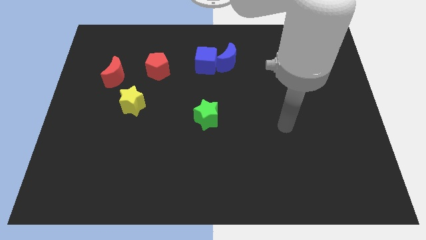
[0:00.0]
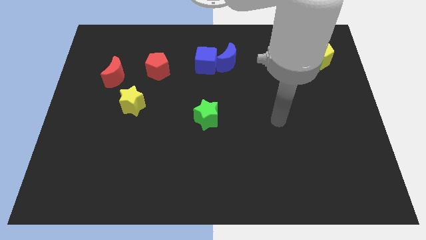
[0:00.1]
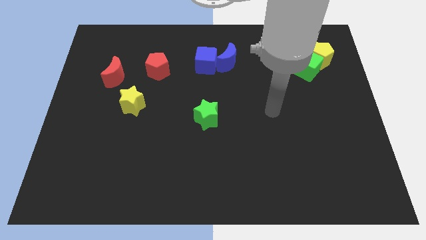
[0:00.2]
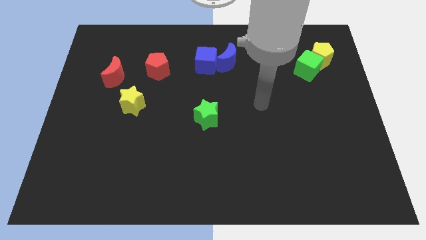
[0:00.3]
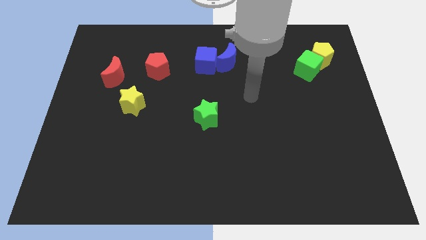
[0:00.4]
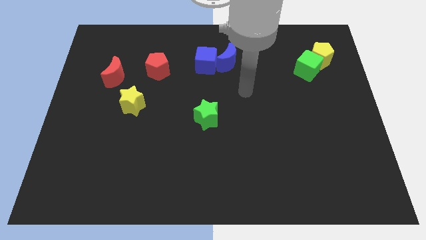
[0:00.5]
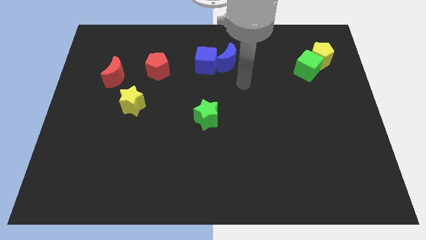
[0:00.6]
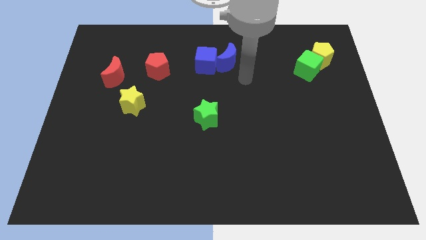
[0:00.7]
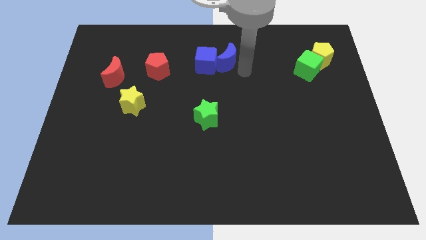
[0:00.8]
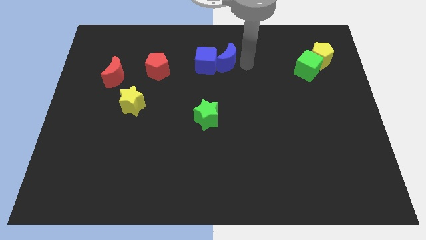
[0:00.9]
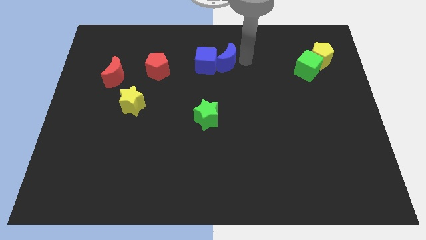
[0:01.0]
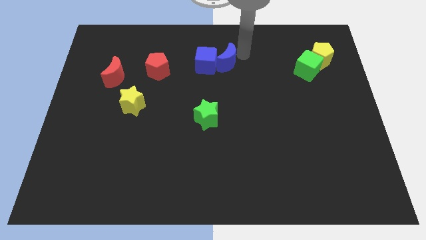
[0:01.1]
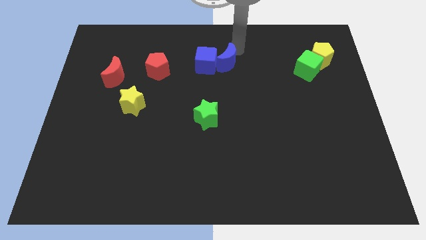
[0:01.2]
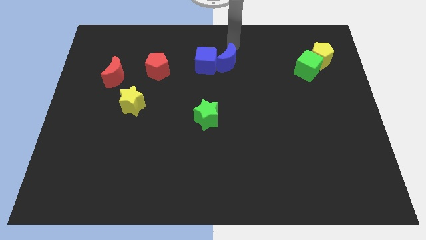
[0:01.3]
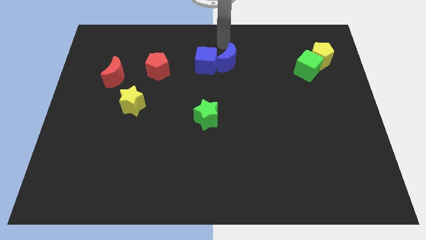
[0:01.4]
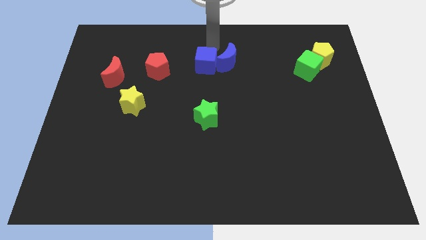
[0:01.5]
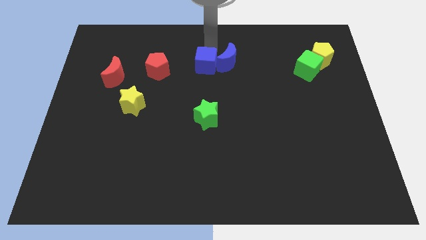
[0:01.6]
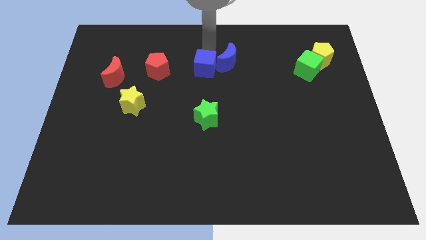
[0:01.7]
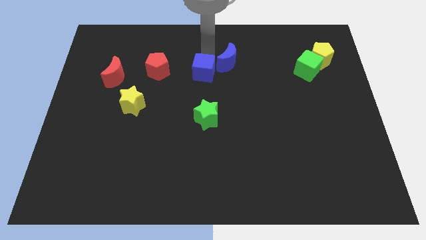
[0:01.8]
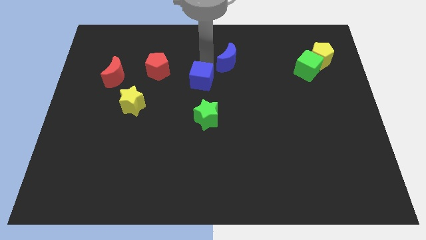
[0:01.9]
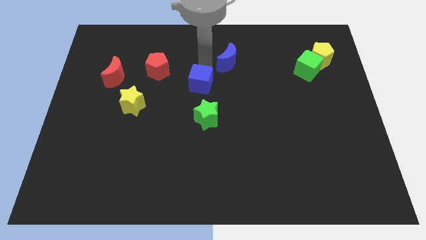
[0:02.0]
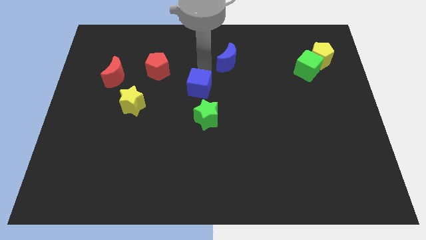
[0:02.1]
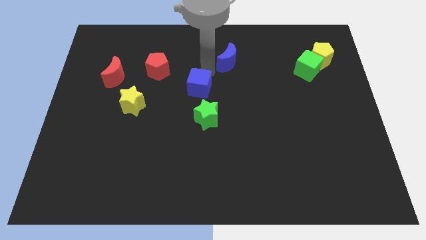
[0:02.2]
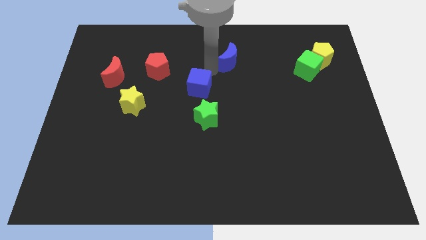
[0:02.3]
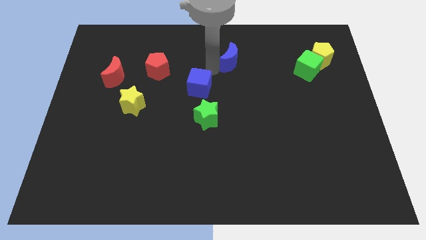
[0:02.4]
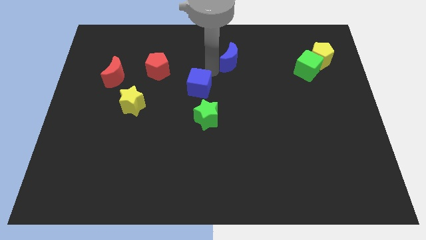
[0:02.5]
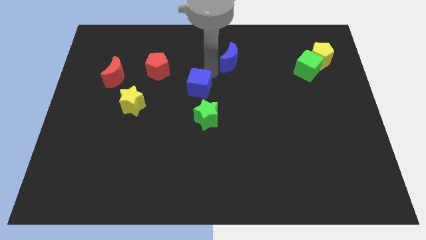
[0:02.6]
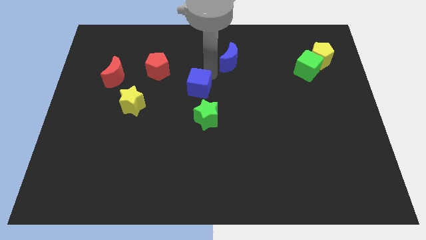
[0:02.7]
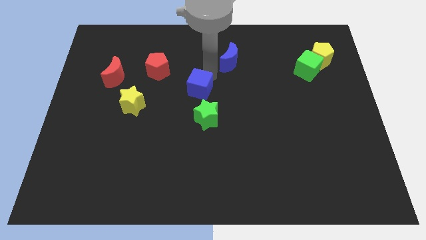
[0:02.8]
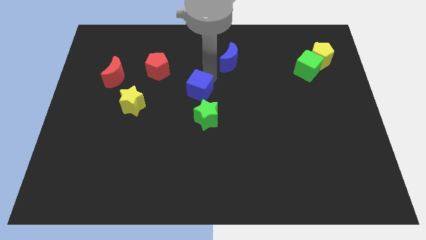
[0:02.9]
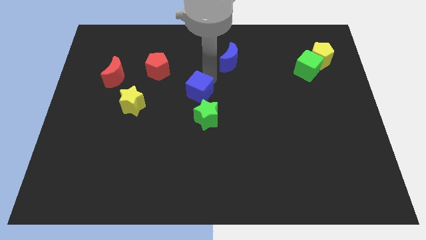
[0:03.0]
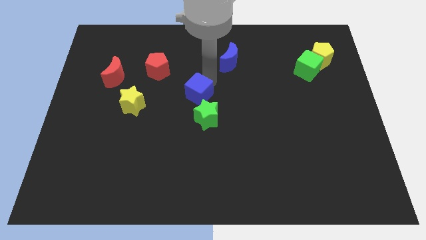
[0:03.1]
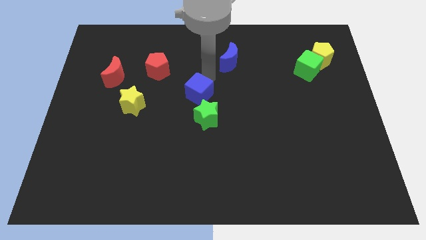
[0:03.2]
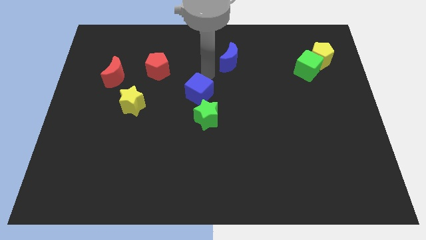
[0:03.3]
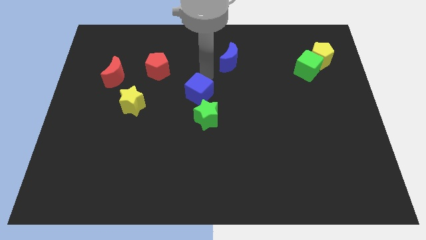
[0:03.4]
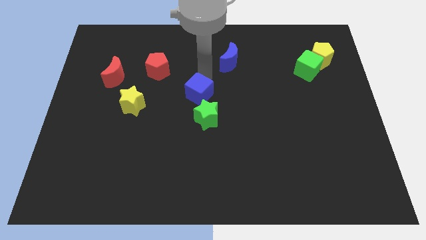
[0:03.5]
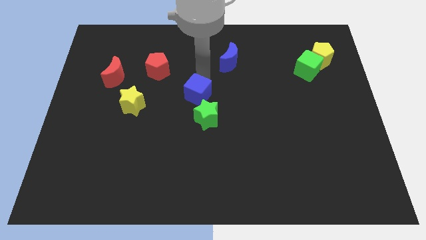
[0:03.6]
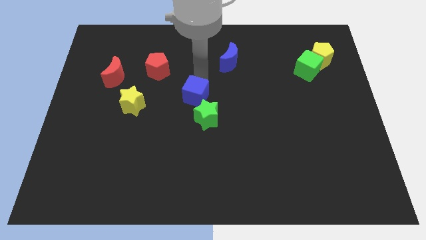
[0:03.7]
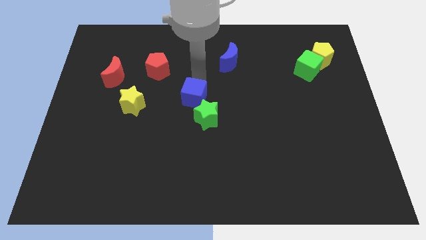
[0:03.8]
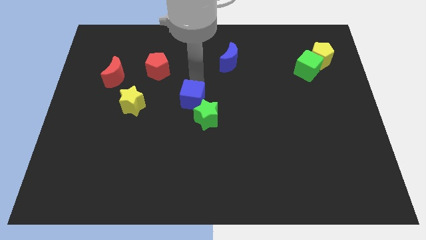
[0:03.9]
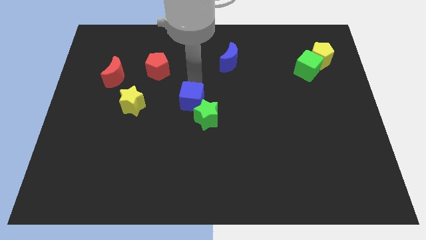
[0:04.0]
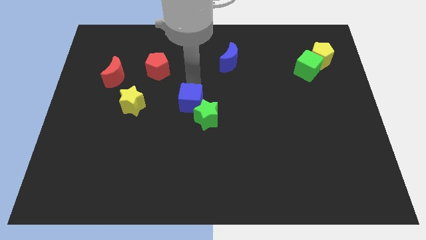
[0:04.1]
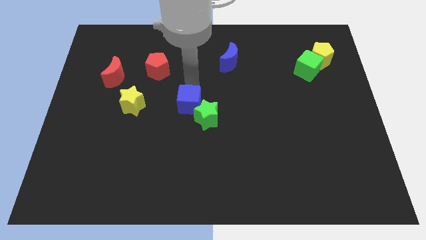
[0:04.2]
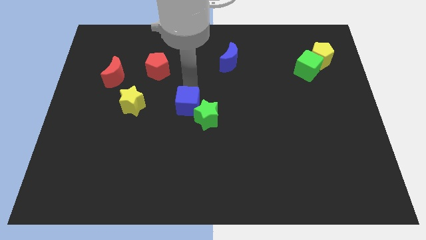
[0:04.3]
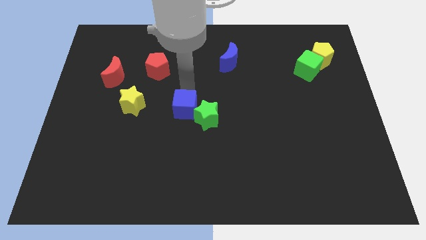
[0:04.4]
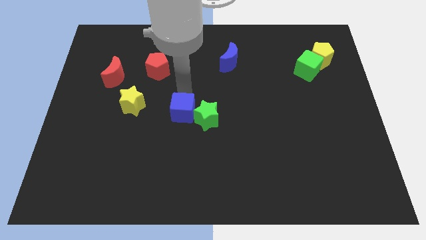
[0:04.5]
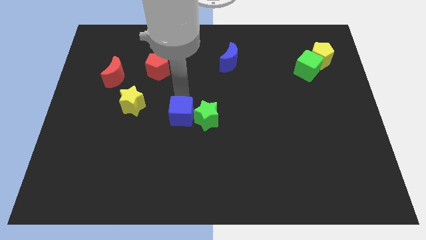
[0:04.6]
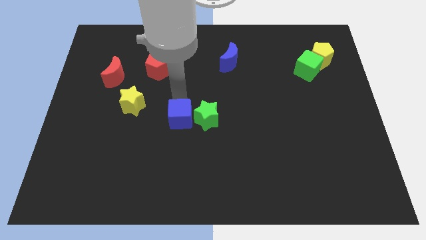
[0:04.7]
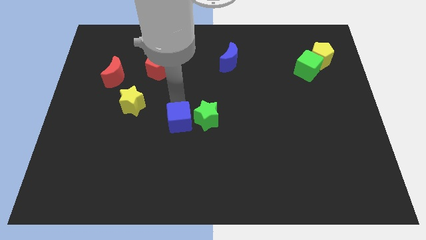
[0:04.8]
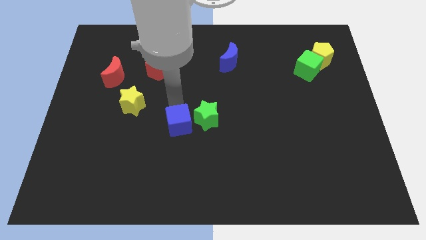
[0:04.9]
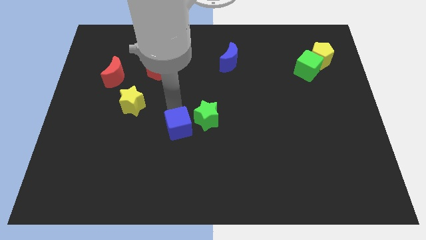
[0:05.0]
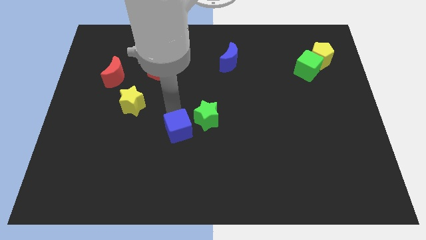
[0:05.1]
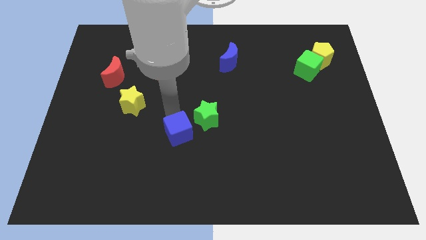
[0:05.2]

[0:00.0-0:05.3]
slide the blue cube downwards

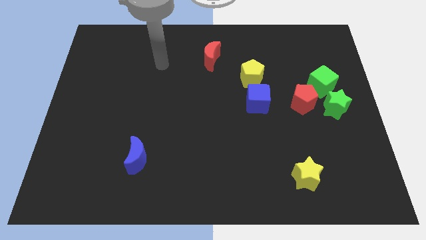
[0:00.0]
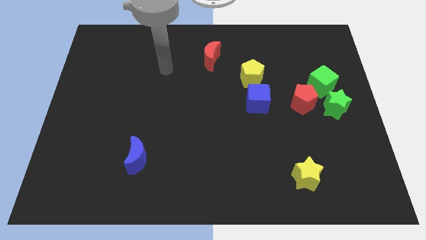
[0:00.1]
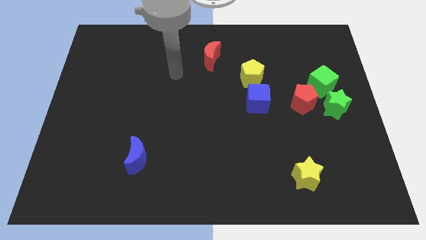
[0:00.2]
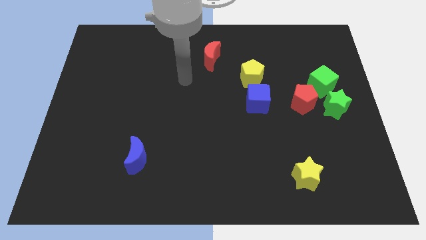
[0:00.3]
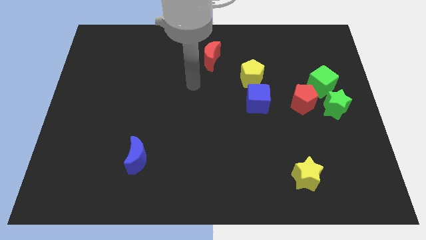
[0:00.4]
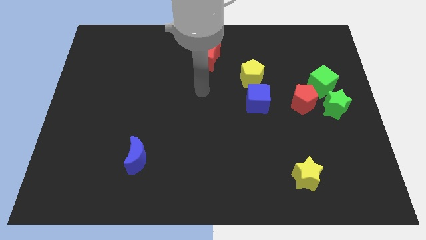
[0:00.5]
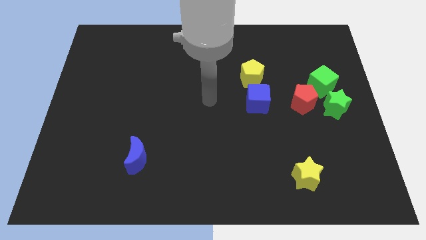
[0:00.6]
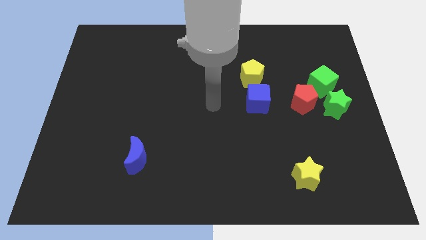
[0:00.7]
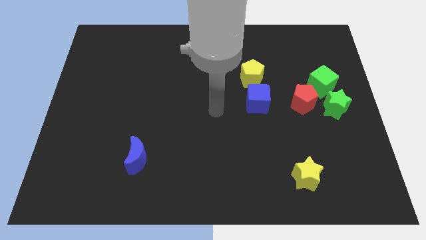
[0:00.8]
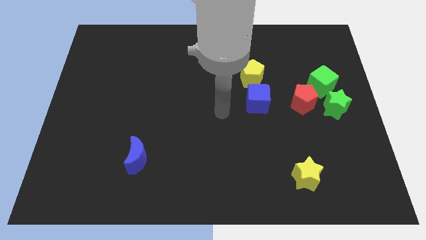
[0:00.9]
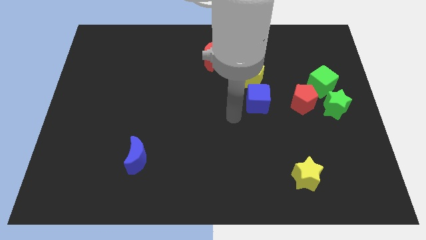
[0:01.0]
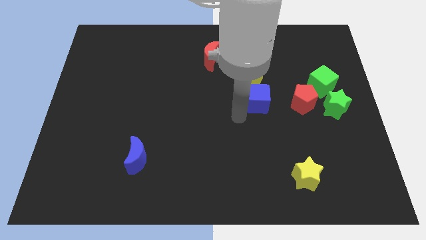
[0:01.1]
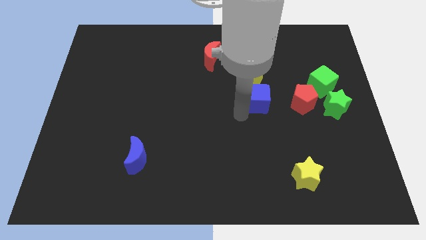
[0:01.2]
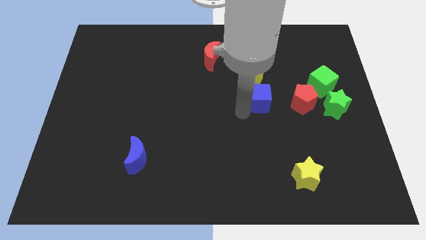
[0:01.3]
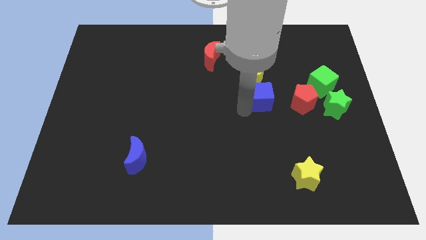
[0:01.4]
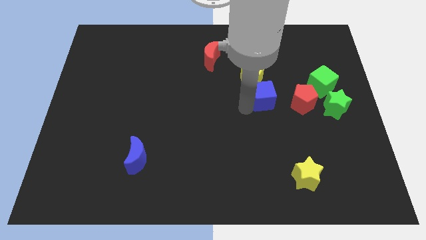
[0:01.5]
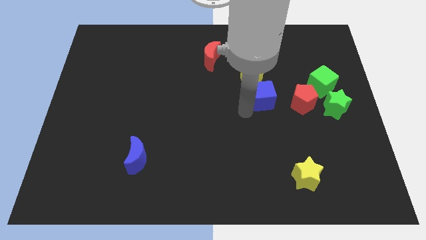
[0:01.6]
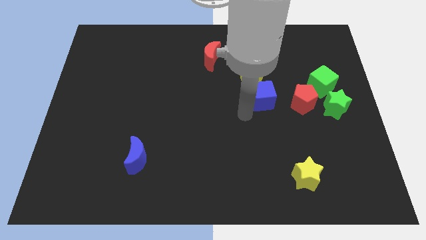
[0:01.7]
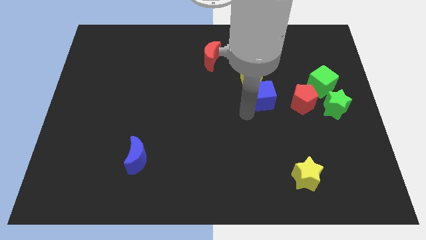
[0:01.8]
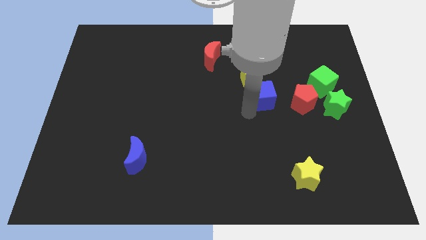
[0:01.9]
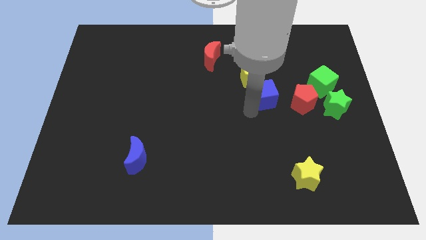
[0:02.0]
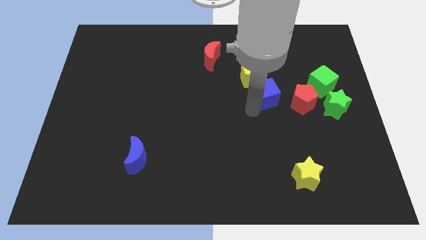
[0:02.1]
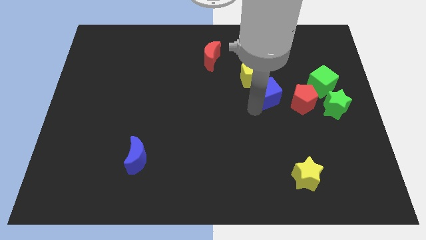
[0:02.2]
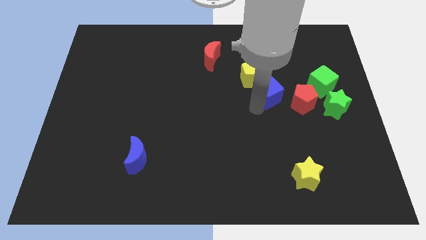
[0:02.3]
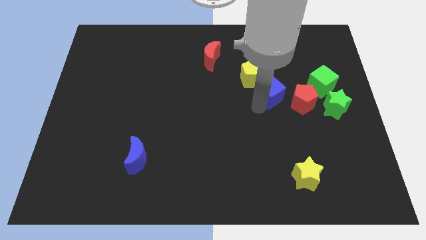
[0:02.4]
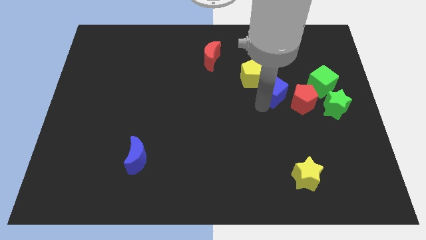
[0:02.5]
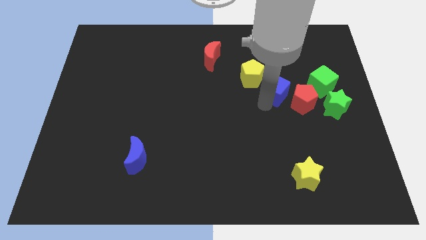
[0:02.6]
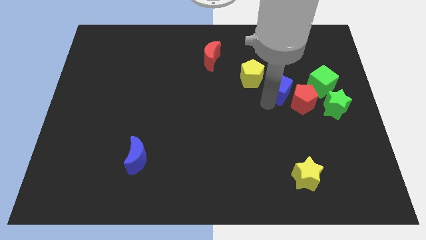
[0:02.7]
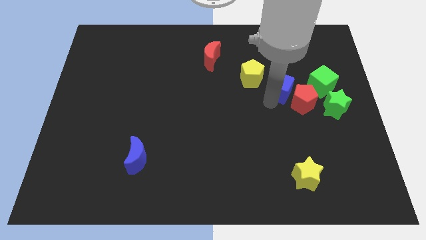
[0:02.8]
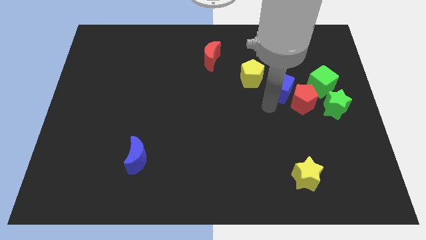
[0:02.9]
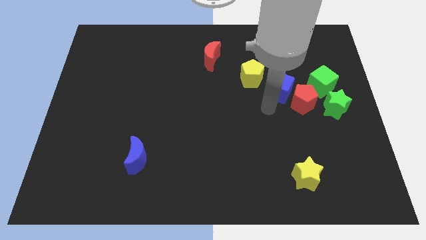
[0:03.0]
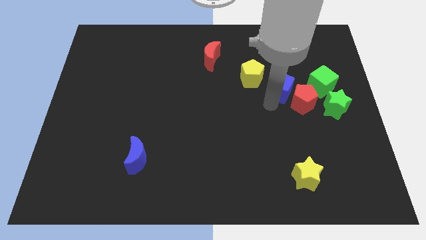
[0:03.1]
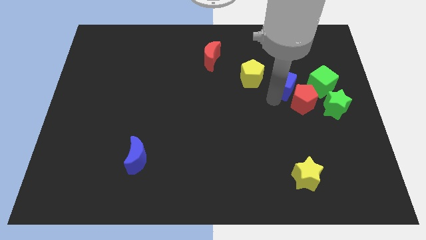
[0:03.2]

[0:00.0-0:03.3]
move the blue cube slightly diagonally upwards and right
